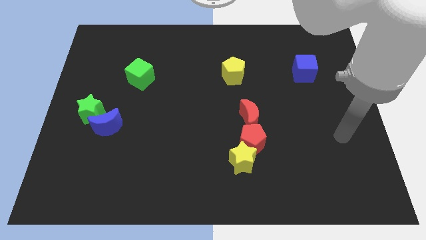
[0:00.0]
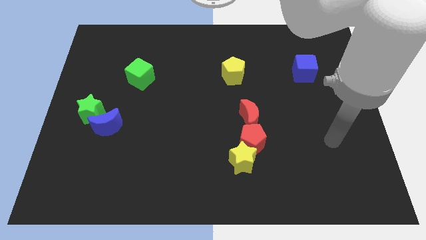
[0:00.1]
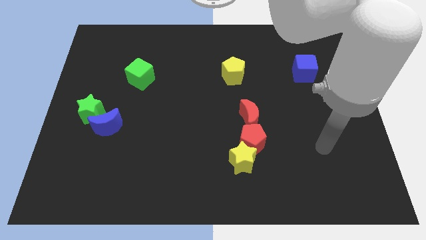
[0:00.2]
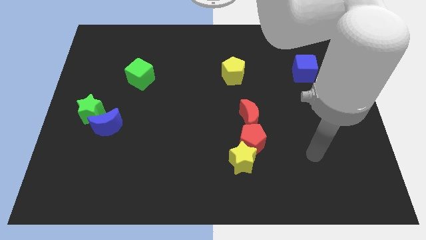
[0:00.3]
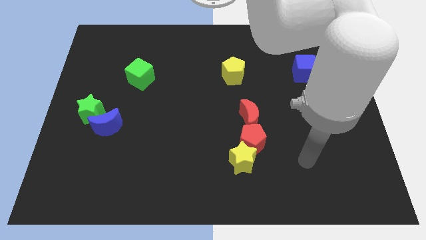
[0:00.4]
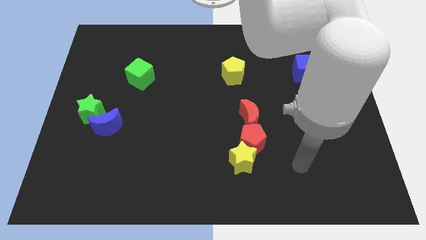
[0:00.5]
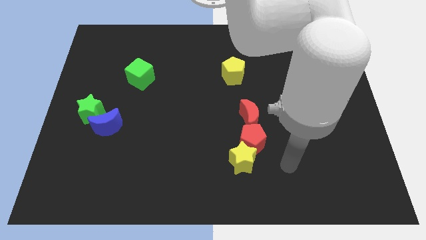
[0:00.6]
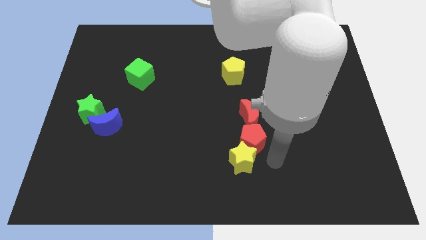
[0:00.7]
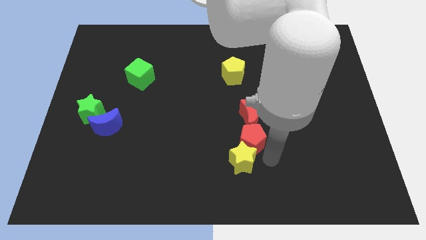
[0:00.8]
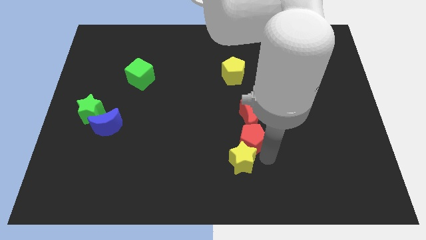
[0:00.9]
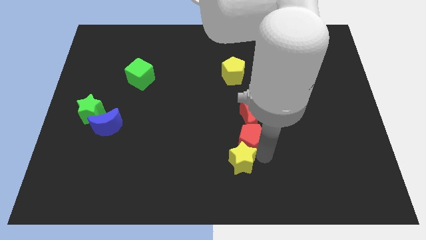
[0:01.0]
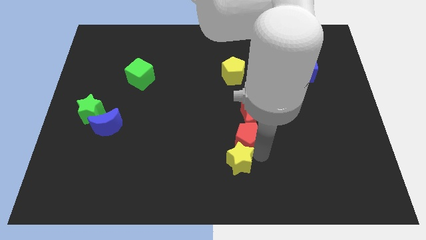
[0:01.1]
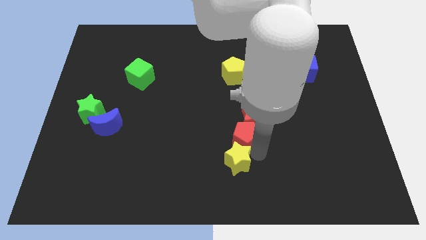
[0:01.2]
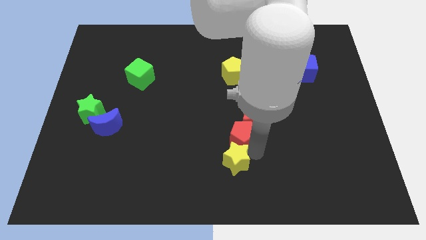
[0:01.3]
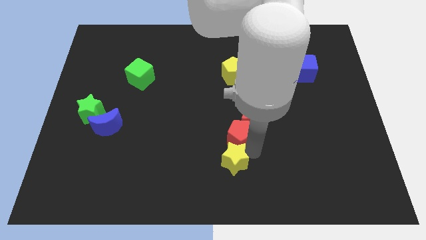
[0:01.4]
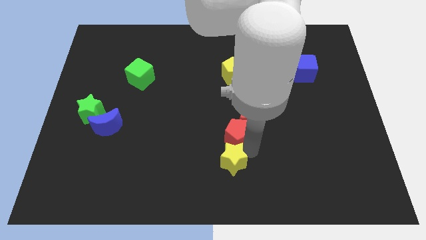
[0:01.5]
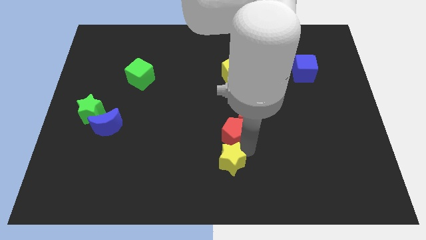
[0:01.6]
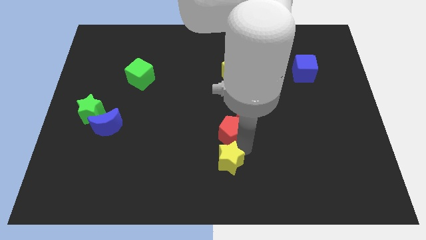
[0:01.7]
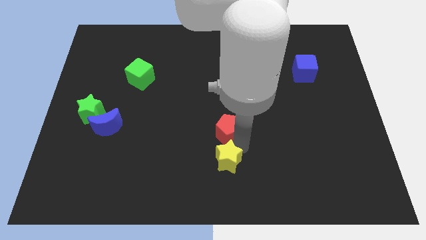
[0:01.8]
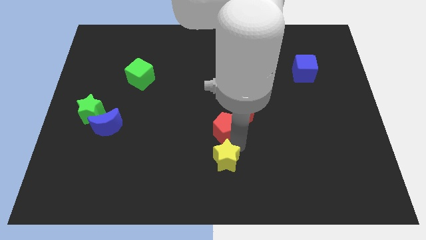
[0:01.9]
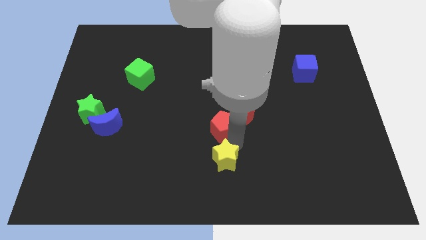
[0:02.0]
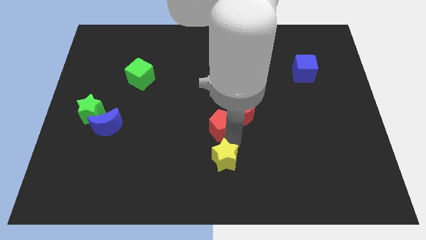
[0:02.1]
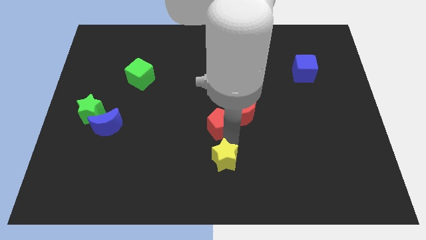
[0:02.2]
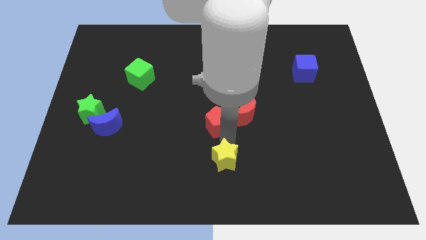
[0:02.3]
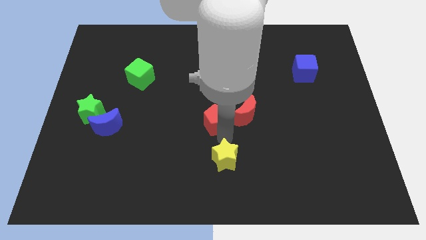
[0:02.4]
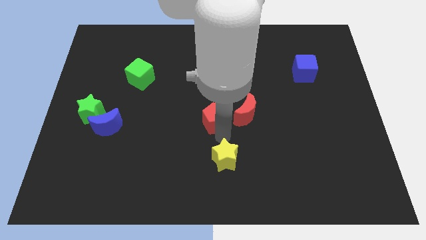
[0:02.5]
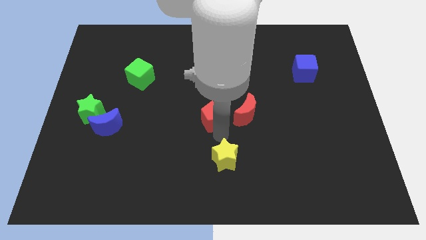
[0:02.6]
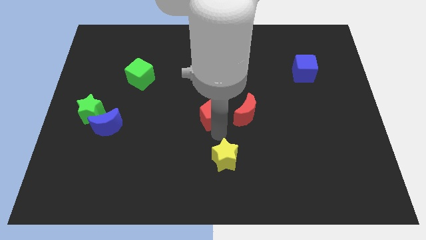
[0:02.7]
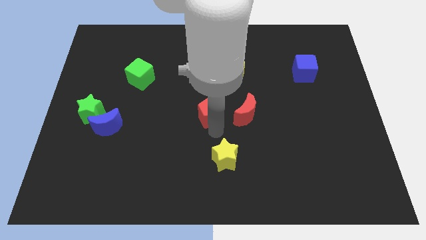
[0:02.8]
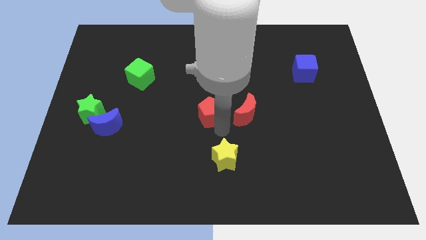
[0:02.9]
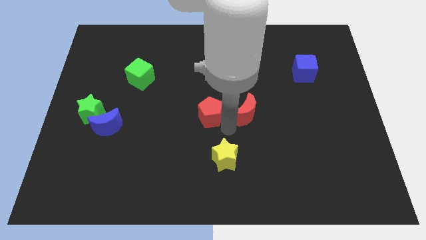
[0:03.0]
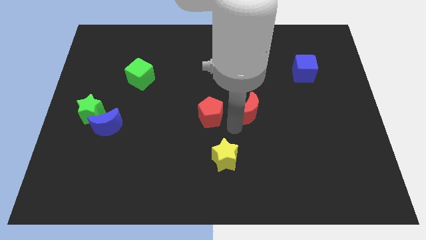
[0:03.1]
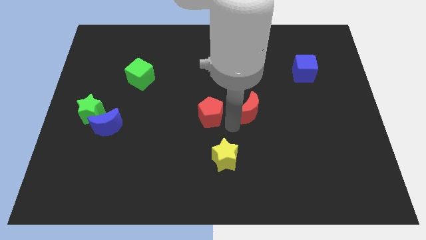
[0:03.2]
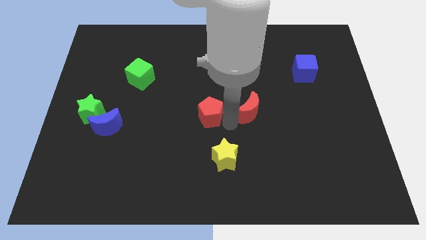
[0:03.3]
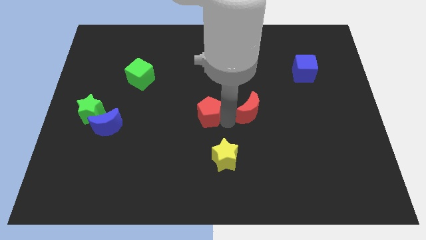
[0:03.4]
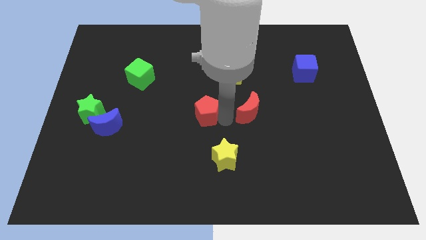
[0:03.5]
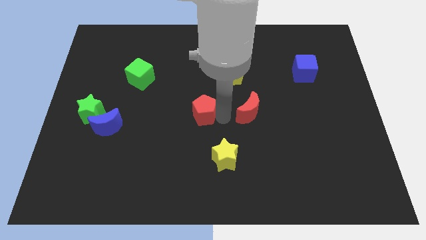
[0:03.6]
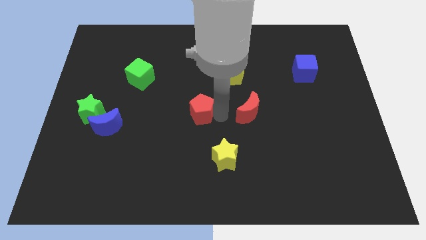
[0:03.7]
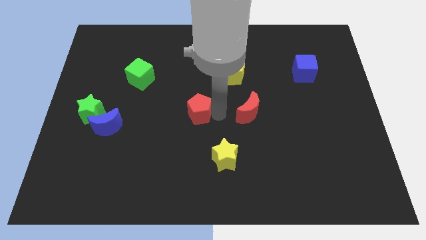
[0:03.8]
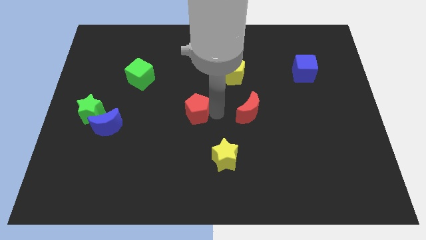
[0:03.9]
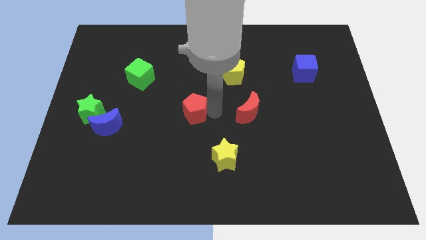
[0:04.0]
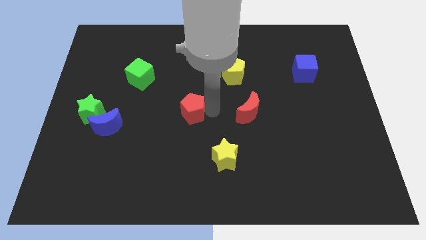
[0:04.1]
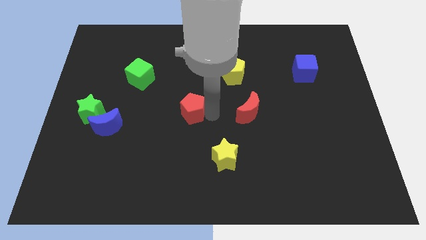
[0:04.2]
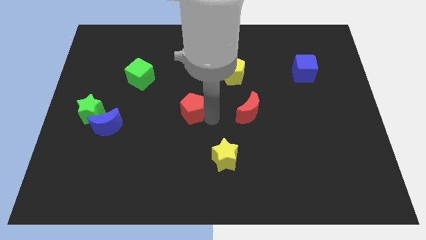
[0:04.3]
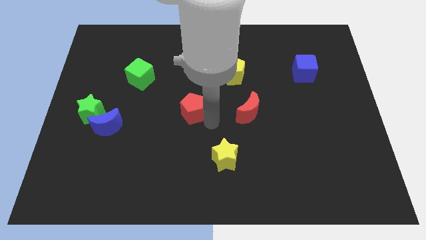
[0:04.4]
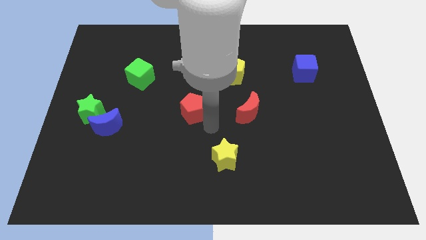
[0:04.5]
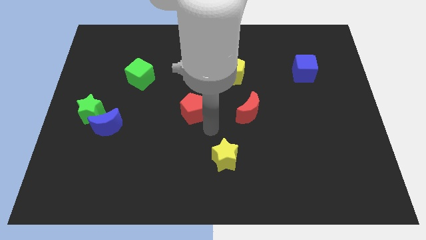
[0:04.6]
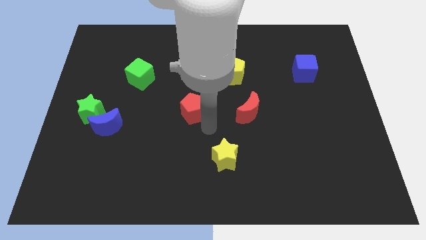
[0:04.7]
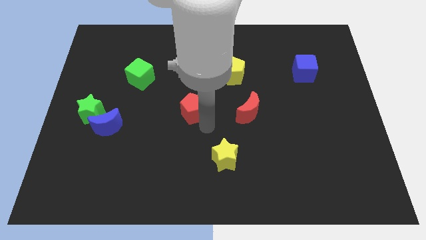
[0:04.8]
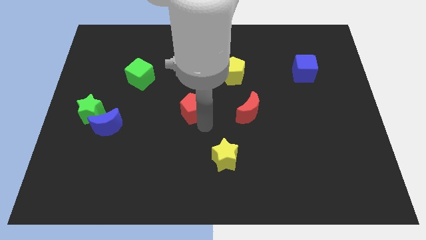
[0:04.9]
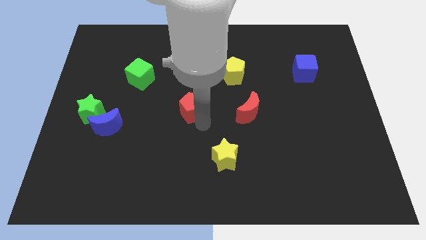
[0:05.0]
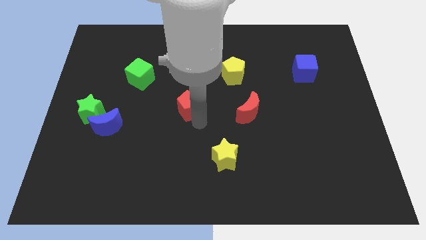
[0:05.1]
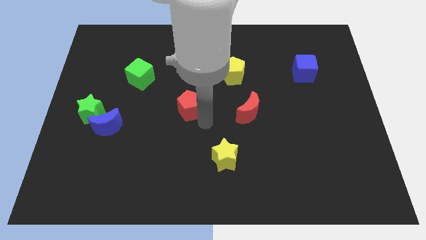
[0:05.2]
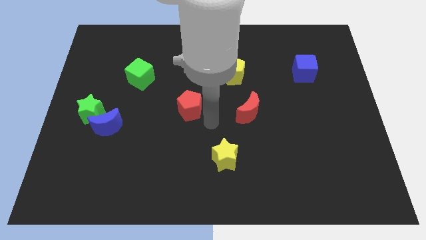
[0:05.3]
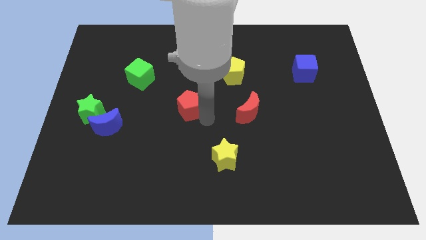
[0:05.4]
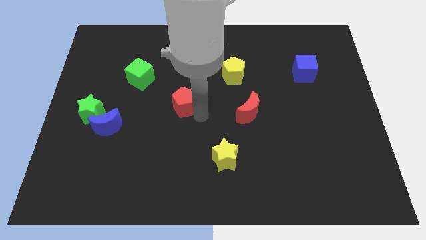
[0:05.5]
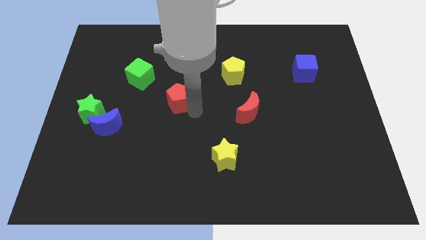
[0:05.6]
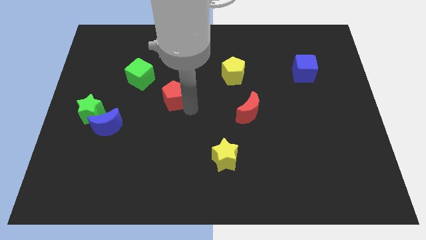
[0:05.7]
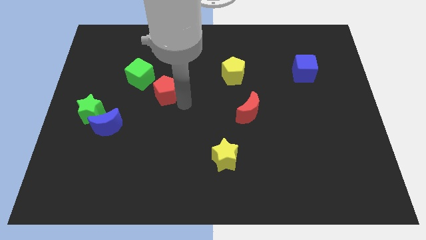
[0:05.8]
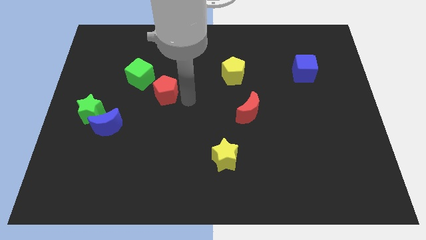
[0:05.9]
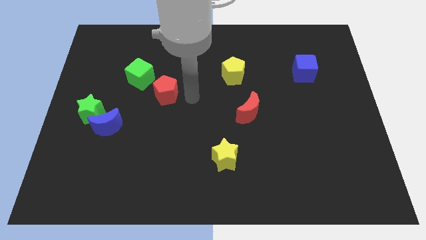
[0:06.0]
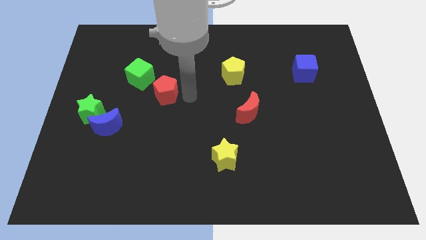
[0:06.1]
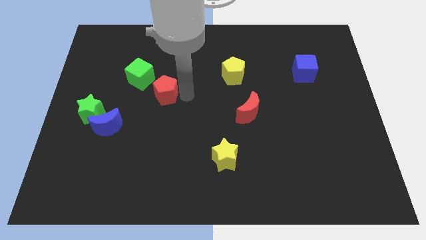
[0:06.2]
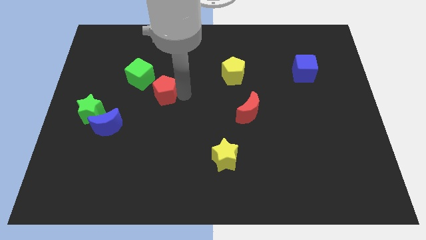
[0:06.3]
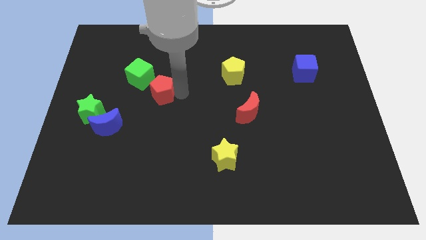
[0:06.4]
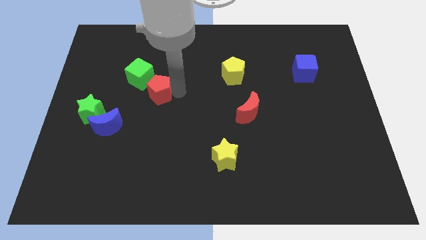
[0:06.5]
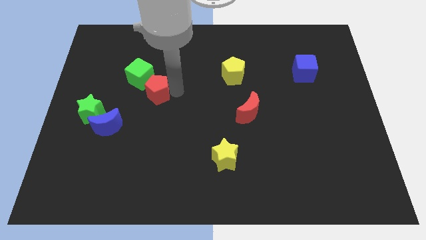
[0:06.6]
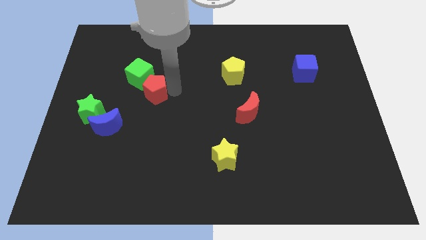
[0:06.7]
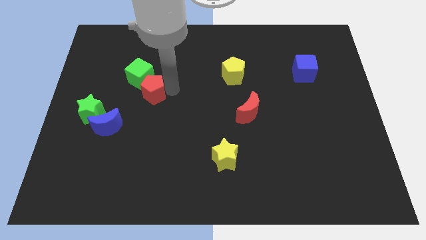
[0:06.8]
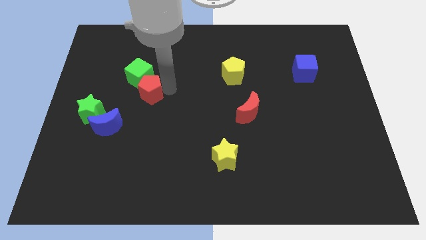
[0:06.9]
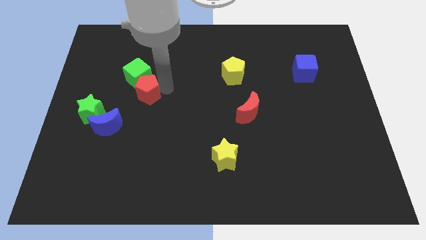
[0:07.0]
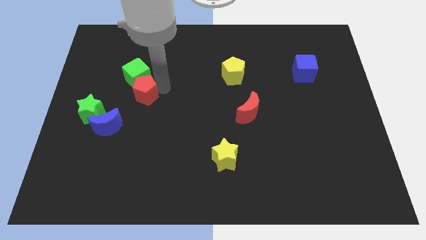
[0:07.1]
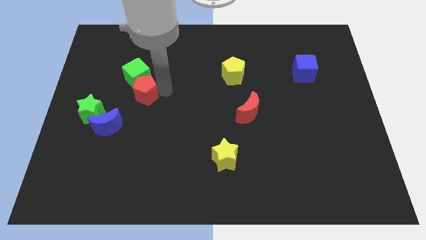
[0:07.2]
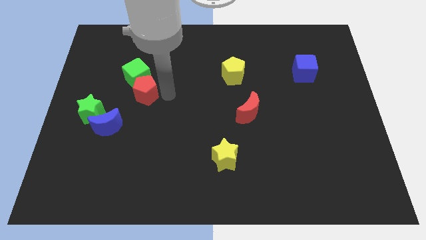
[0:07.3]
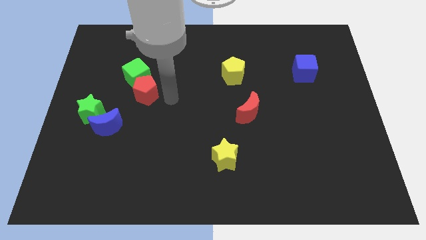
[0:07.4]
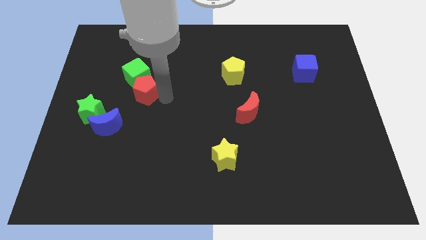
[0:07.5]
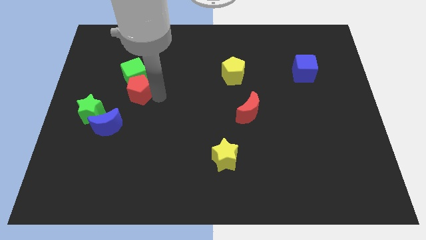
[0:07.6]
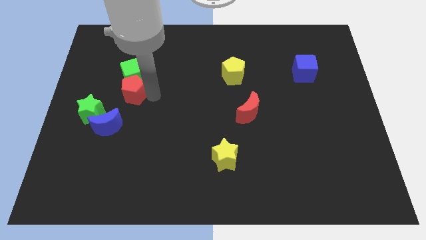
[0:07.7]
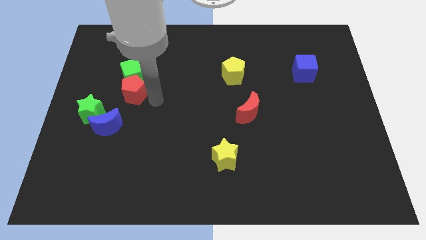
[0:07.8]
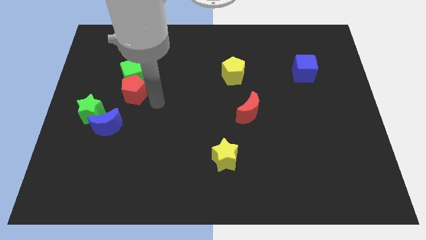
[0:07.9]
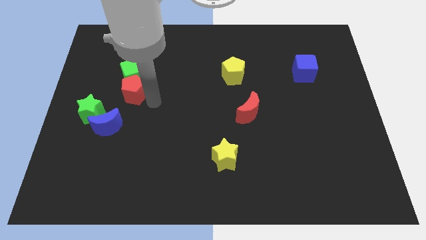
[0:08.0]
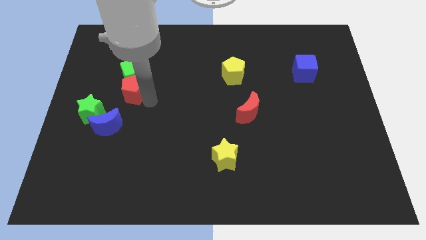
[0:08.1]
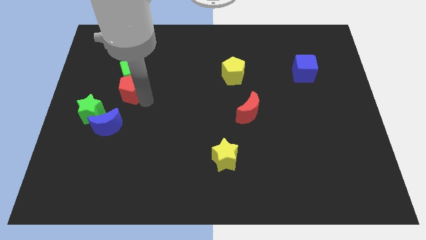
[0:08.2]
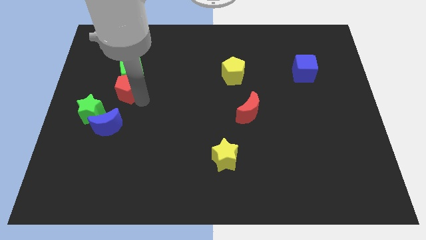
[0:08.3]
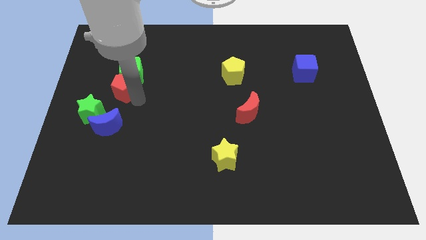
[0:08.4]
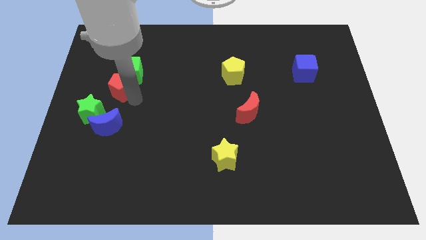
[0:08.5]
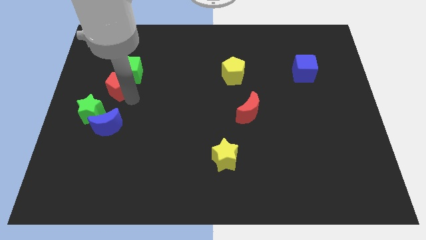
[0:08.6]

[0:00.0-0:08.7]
move the red pentagon to the top side of the green star

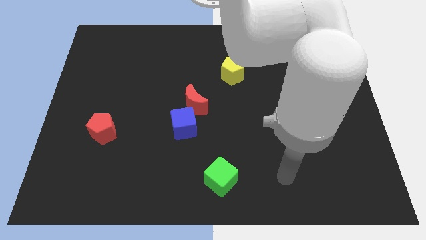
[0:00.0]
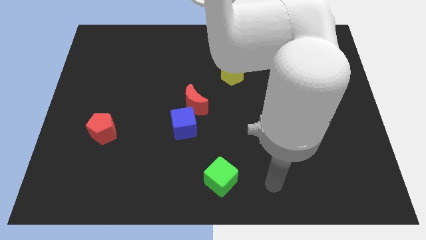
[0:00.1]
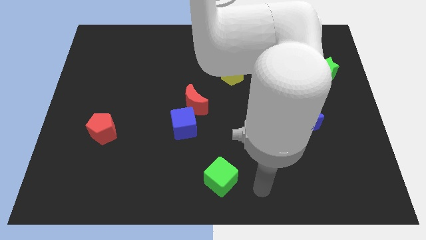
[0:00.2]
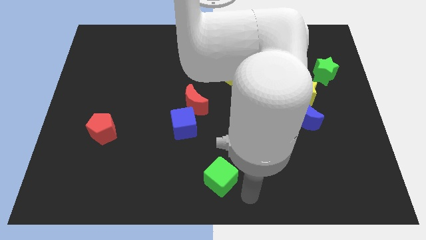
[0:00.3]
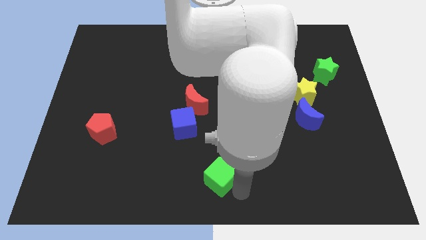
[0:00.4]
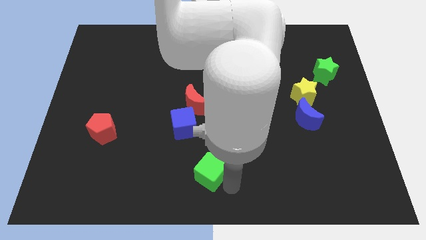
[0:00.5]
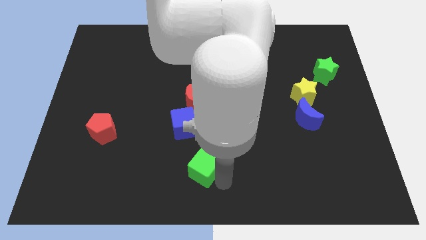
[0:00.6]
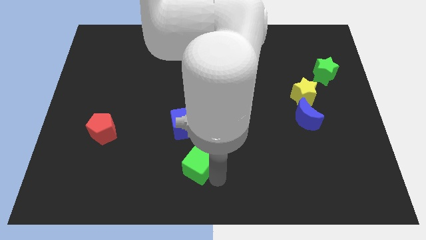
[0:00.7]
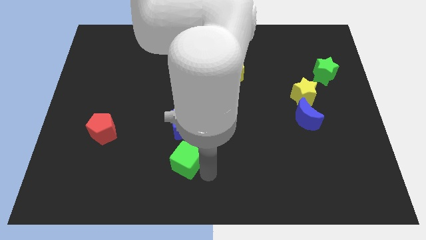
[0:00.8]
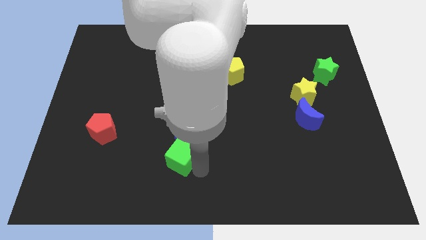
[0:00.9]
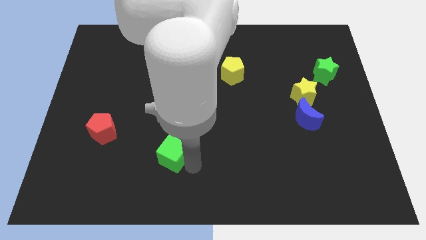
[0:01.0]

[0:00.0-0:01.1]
slide the green cube to the bottom left of the blue cube
